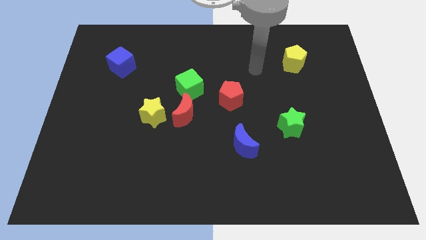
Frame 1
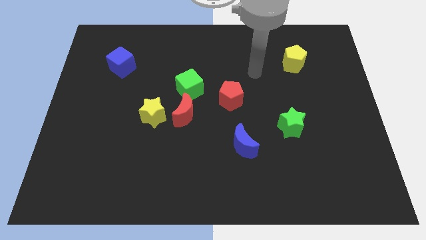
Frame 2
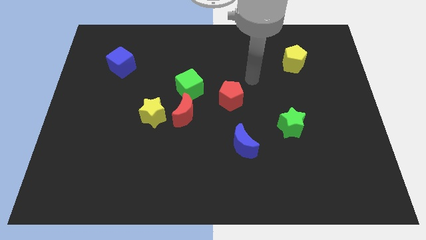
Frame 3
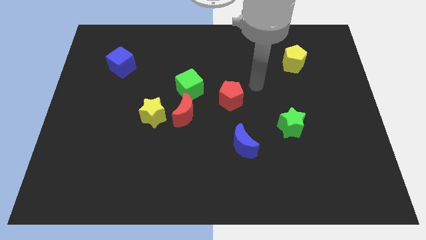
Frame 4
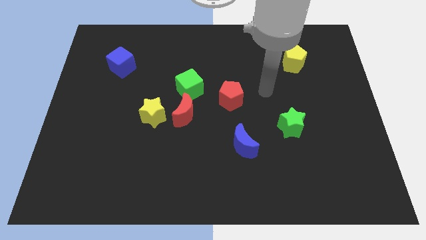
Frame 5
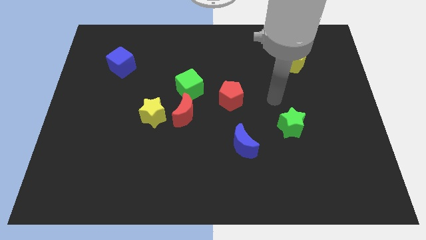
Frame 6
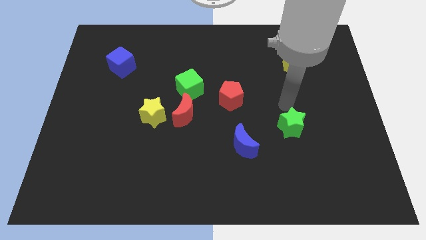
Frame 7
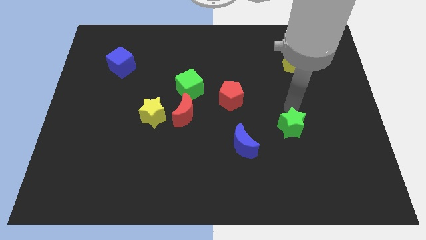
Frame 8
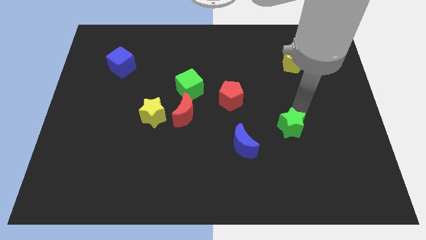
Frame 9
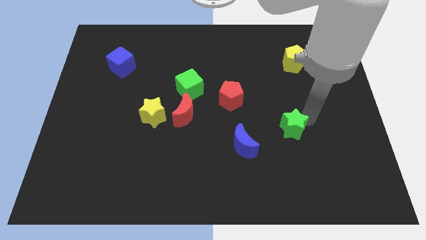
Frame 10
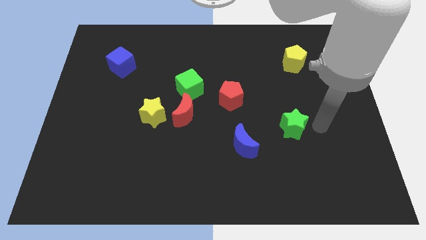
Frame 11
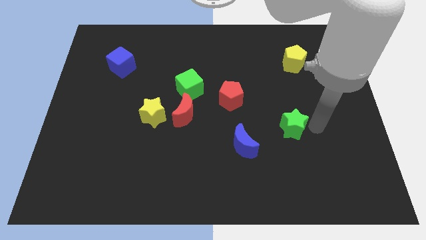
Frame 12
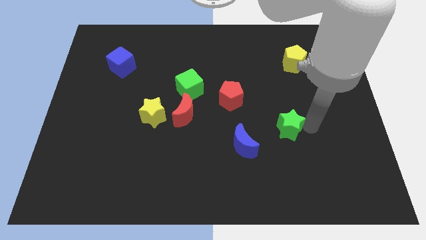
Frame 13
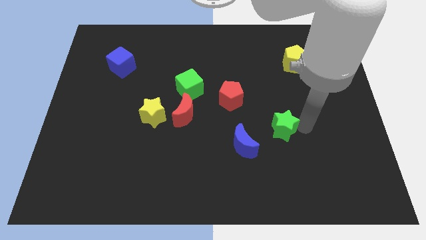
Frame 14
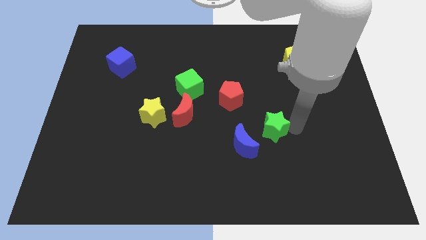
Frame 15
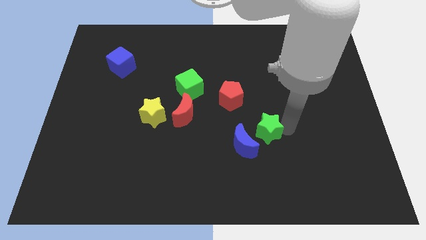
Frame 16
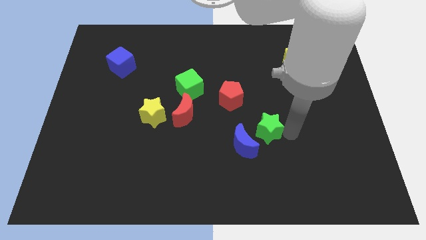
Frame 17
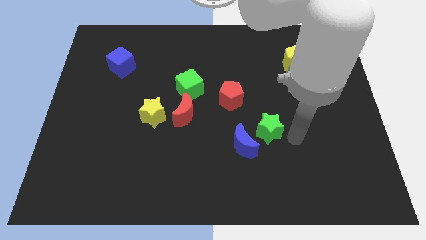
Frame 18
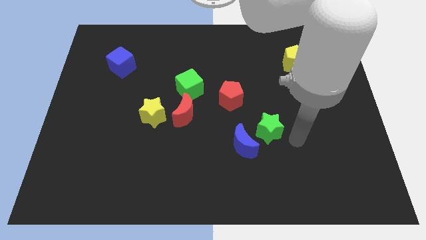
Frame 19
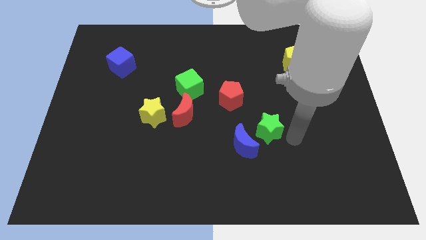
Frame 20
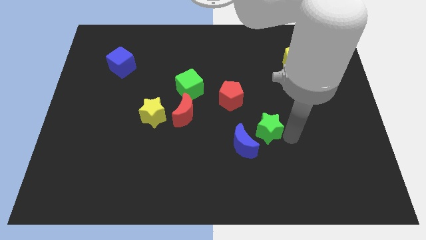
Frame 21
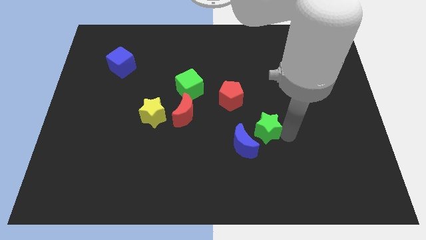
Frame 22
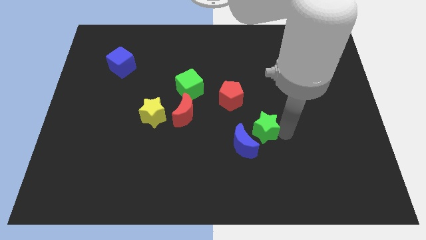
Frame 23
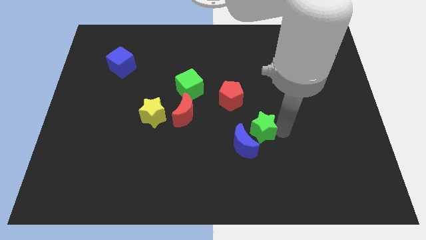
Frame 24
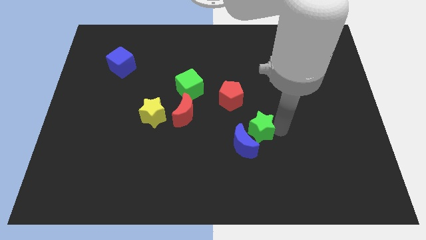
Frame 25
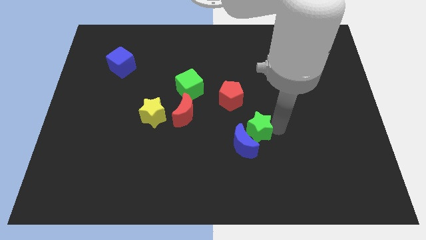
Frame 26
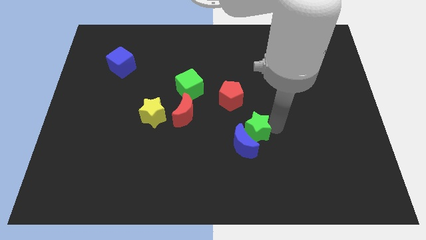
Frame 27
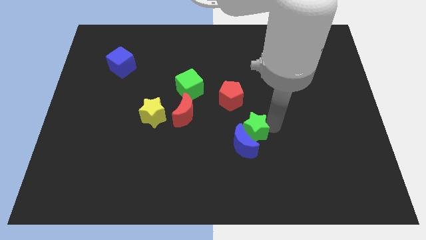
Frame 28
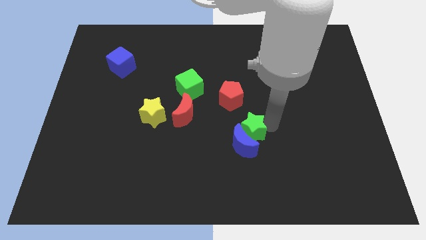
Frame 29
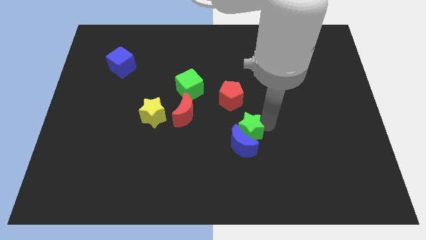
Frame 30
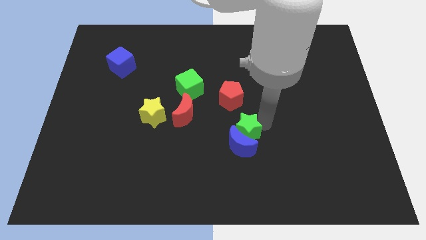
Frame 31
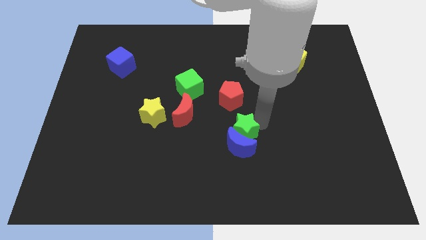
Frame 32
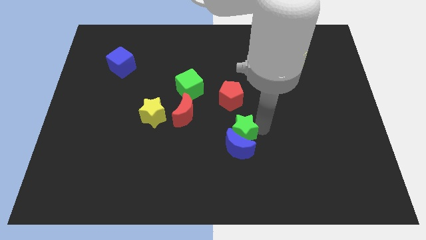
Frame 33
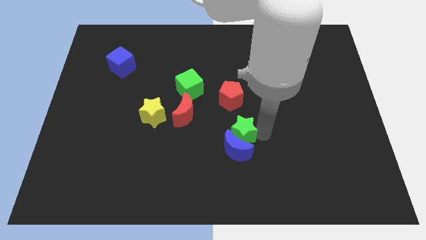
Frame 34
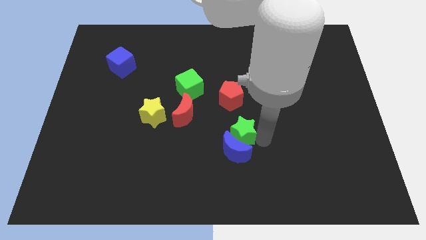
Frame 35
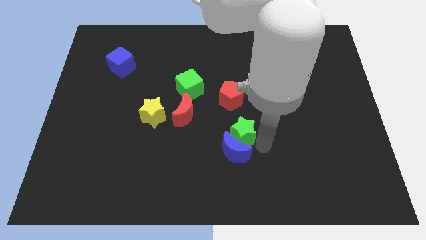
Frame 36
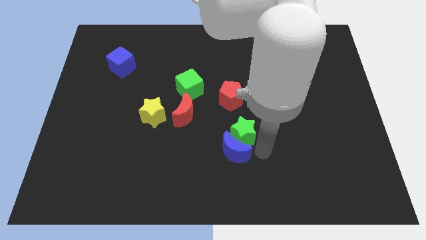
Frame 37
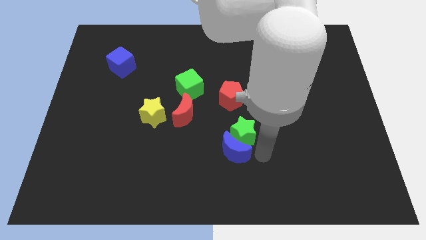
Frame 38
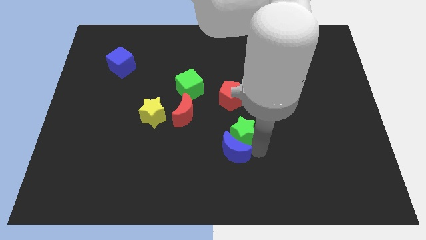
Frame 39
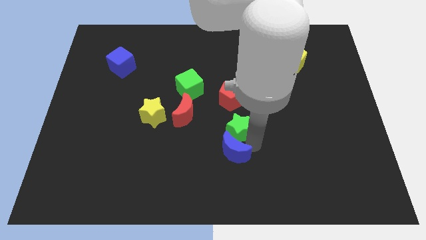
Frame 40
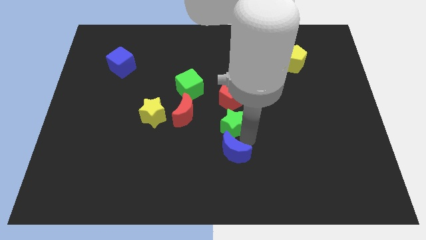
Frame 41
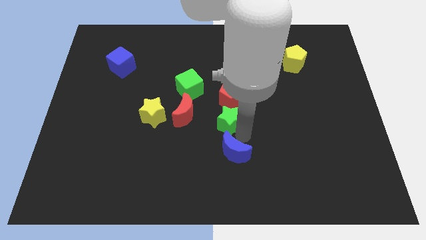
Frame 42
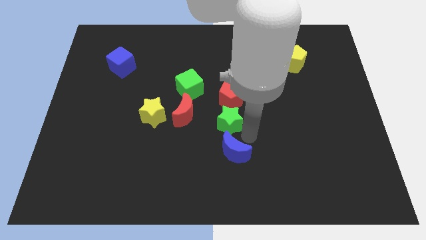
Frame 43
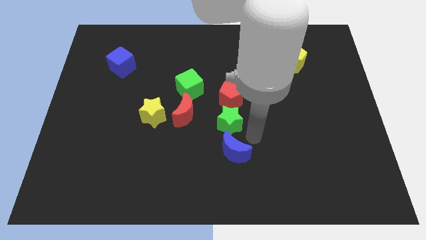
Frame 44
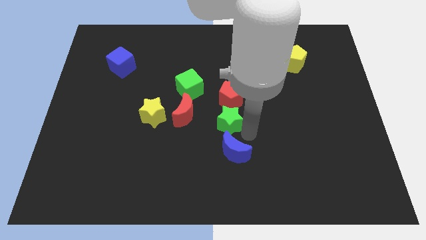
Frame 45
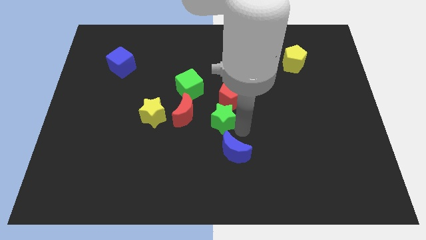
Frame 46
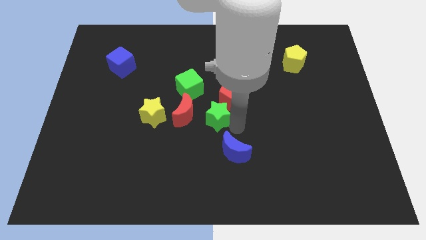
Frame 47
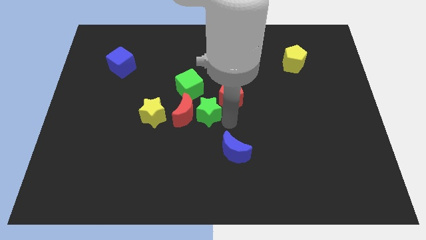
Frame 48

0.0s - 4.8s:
push the green star next to the red moon

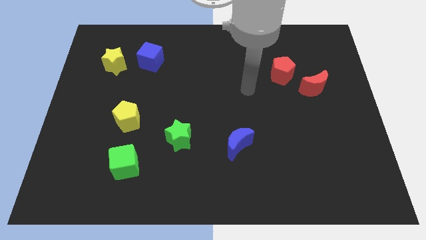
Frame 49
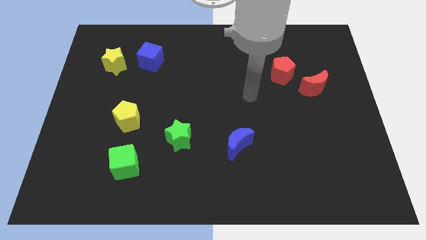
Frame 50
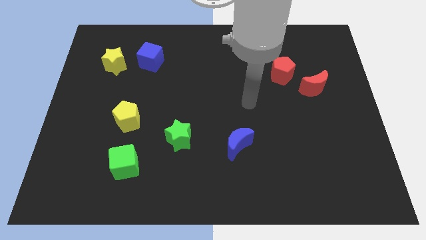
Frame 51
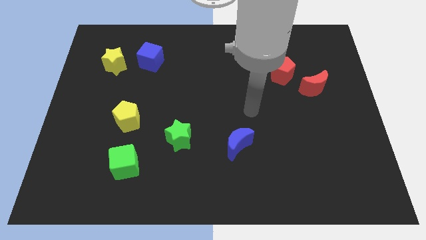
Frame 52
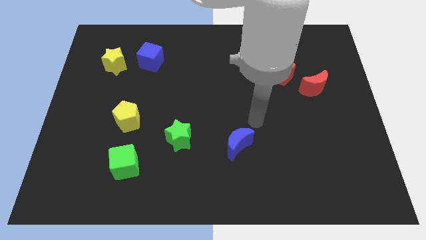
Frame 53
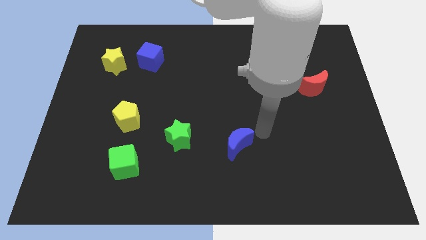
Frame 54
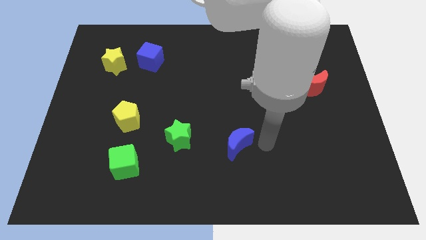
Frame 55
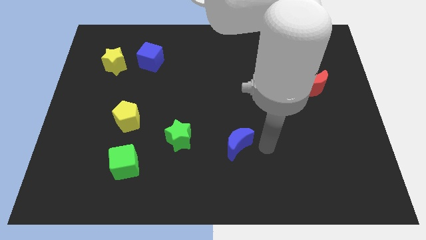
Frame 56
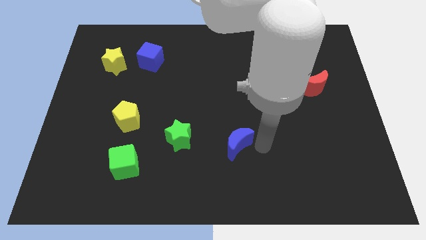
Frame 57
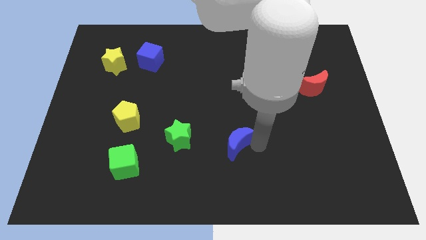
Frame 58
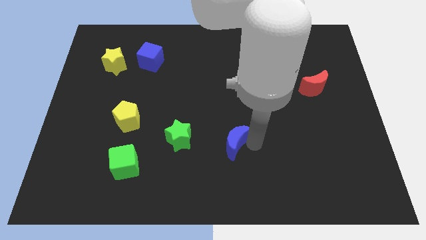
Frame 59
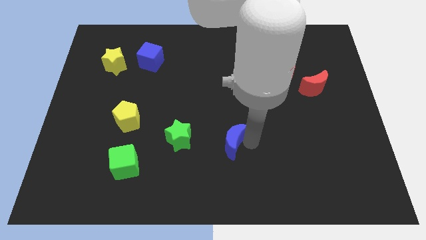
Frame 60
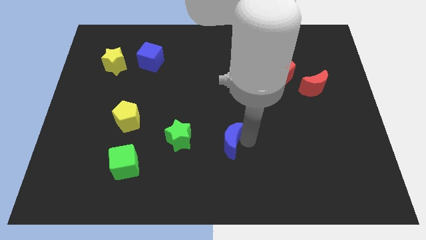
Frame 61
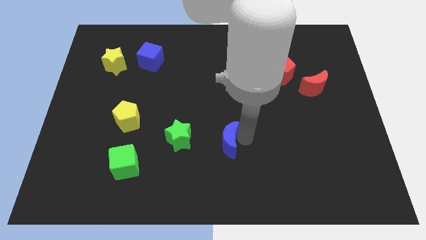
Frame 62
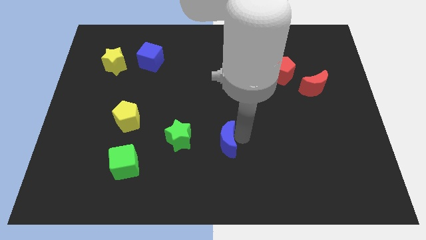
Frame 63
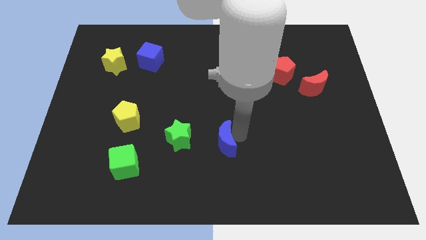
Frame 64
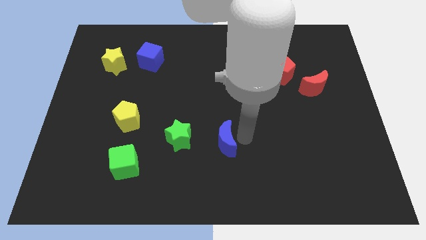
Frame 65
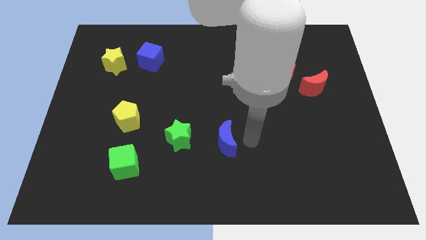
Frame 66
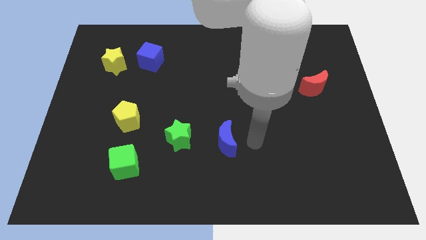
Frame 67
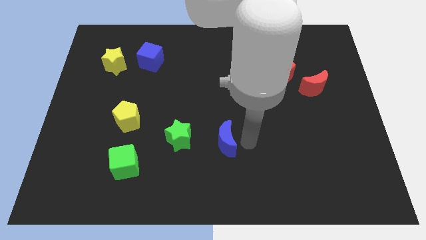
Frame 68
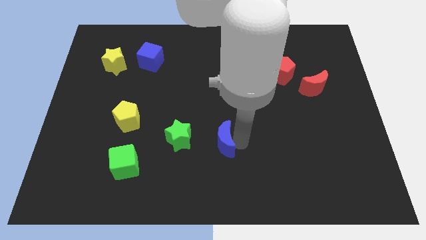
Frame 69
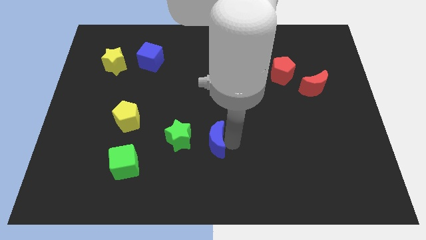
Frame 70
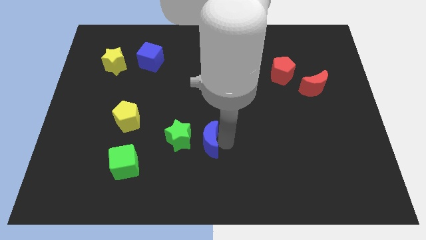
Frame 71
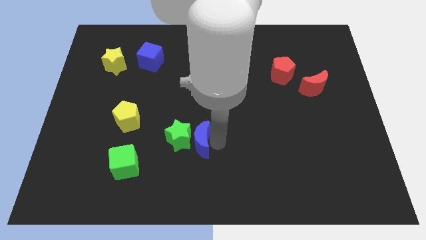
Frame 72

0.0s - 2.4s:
put the blue moon next to the green star

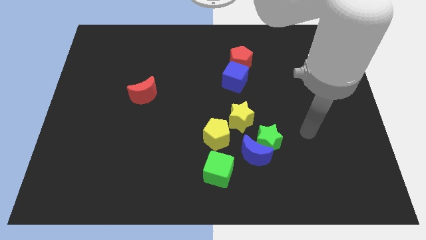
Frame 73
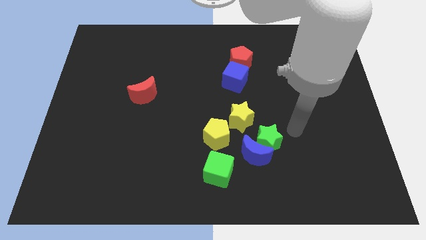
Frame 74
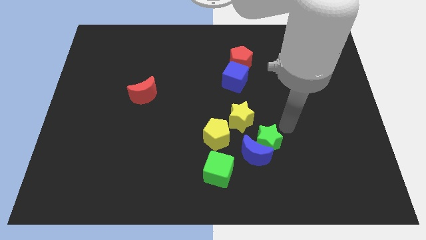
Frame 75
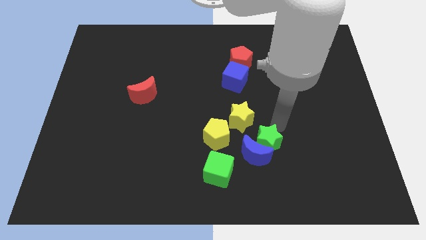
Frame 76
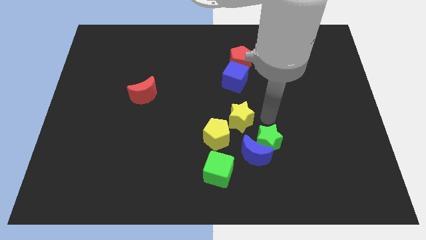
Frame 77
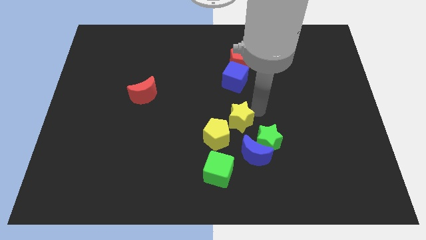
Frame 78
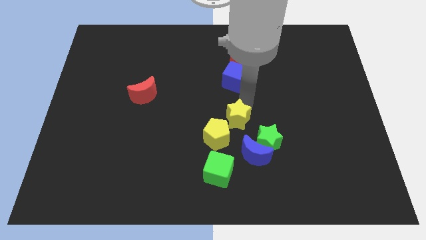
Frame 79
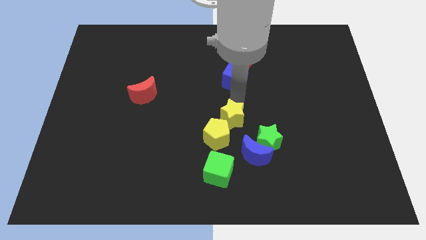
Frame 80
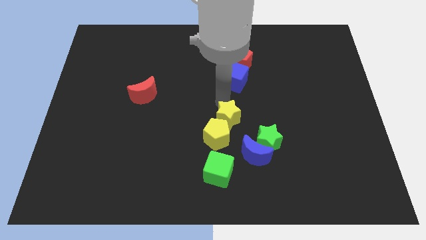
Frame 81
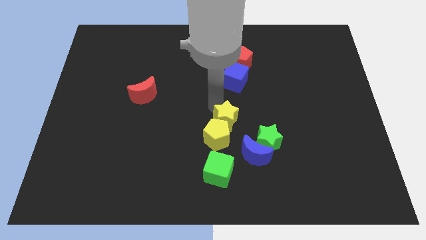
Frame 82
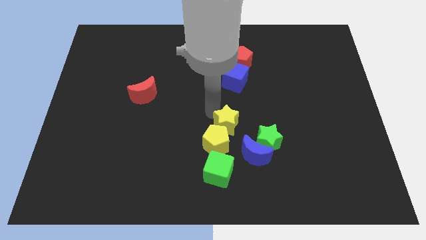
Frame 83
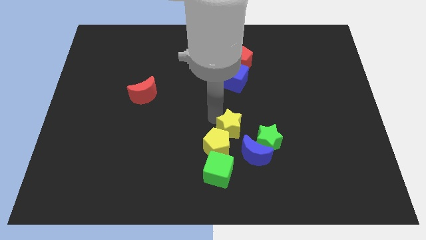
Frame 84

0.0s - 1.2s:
put the yellow pentagon close to the green cube
